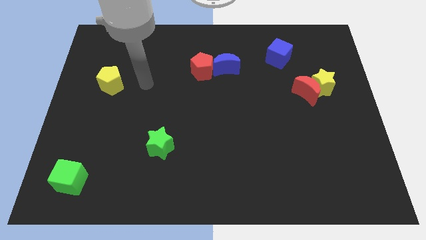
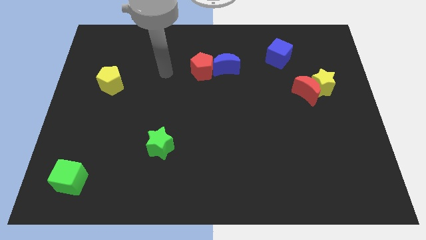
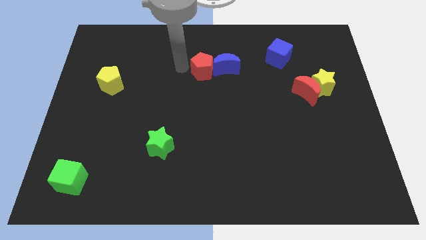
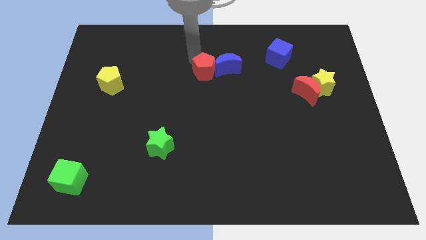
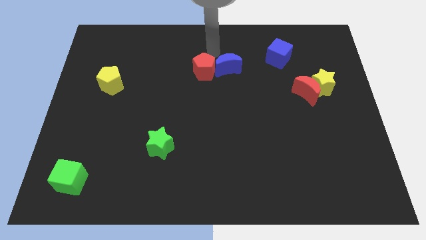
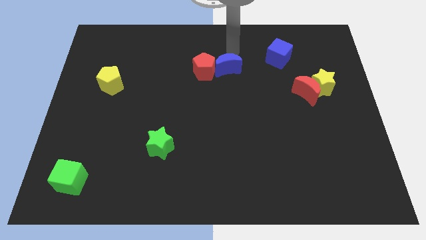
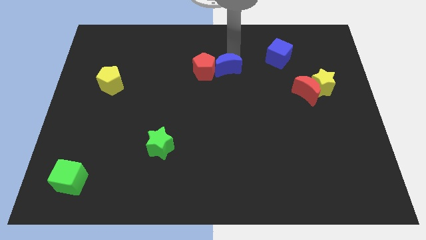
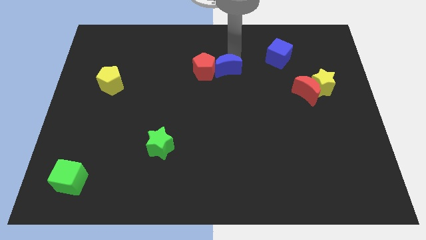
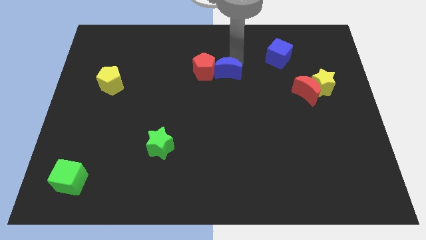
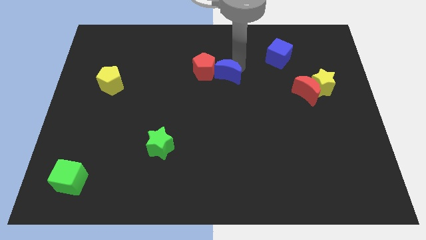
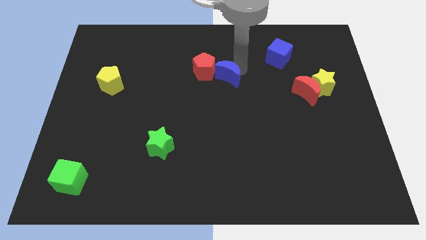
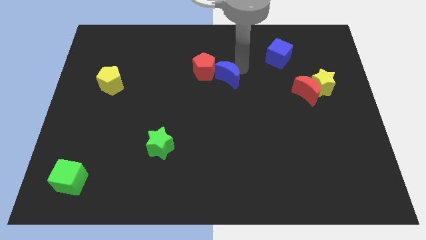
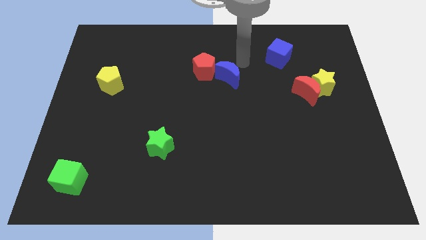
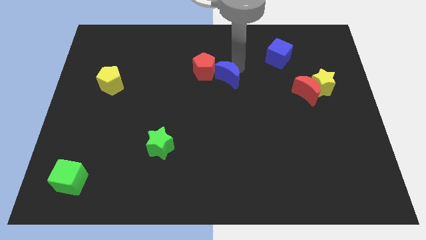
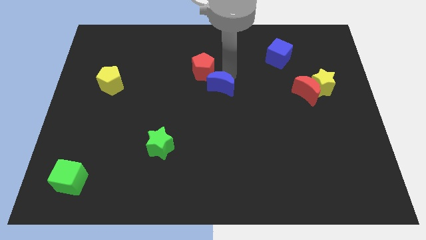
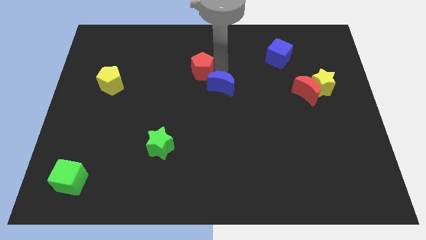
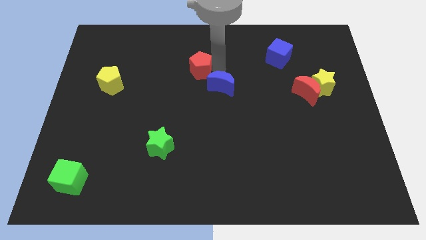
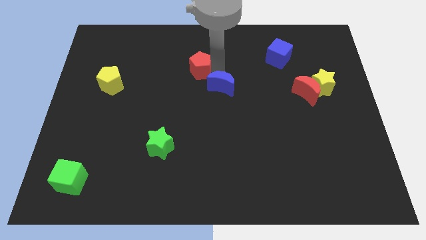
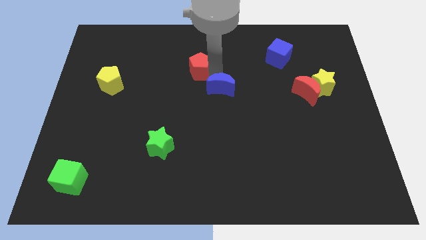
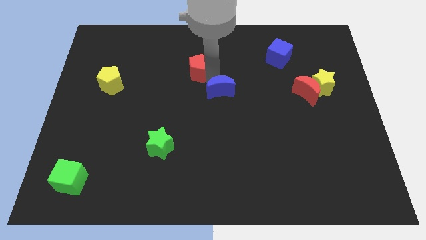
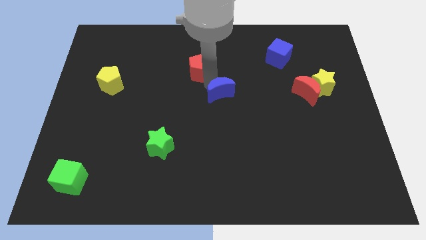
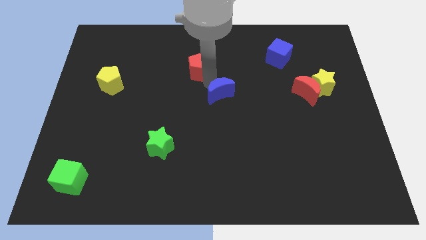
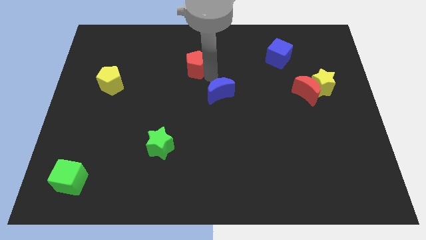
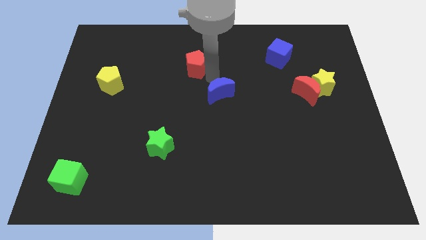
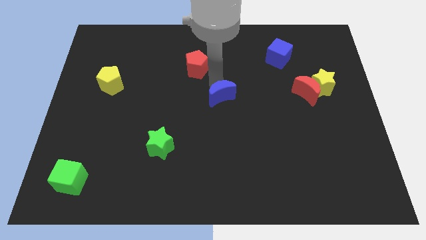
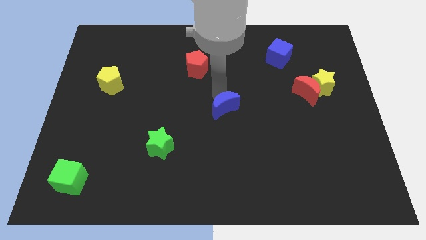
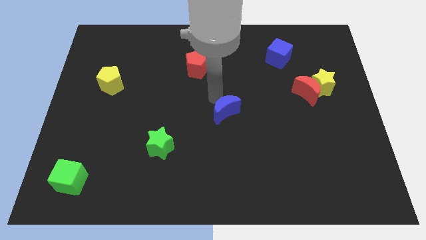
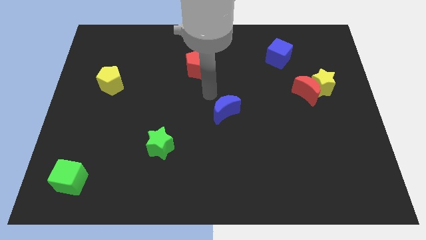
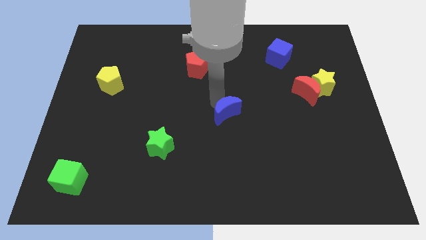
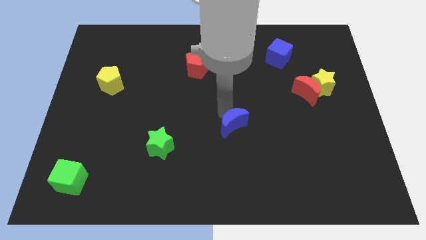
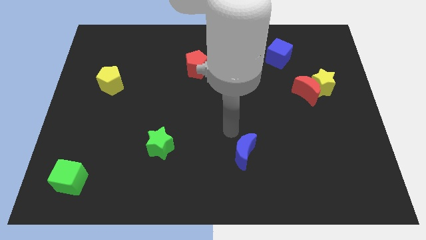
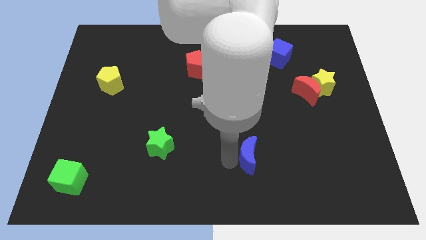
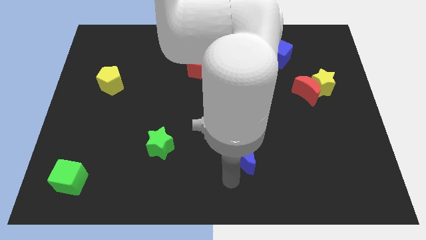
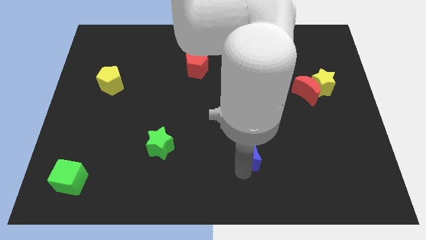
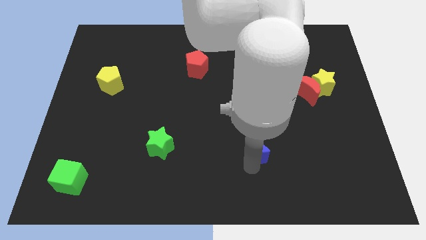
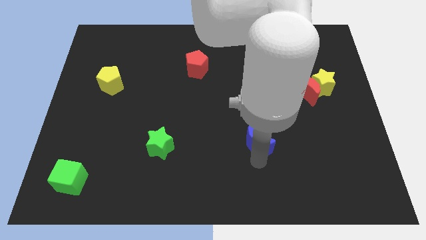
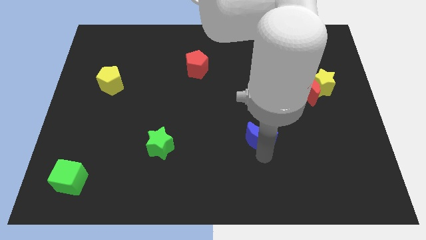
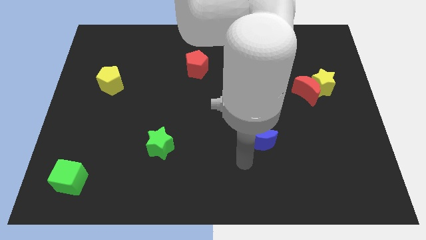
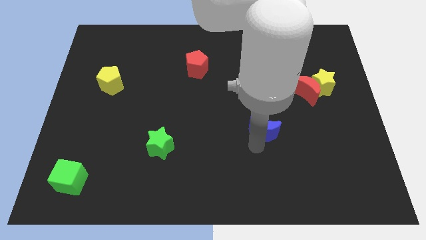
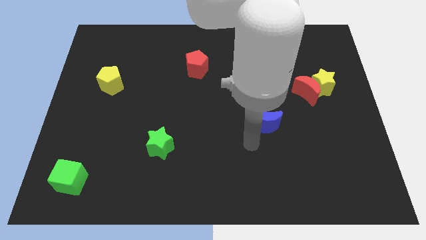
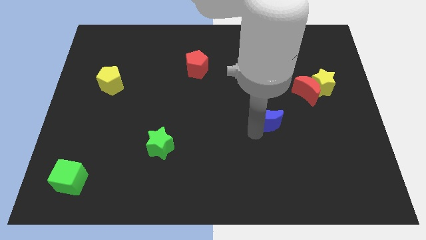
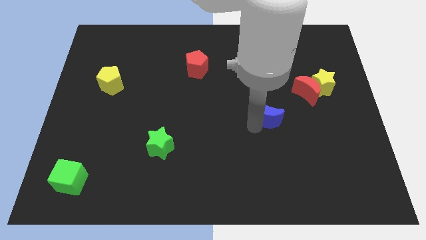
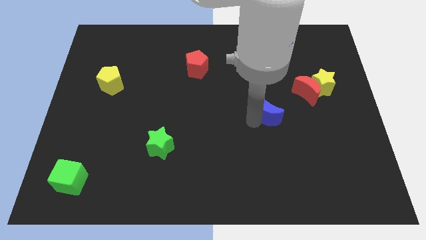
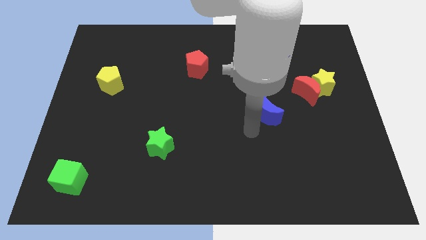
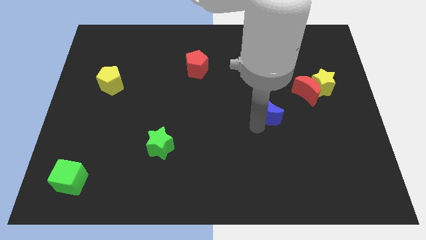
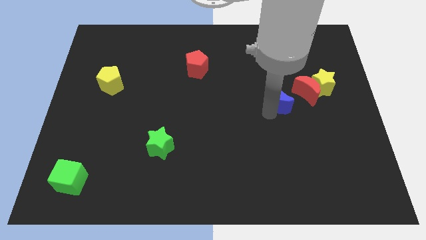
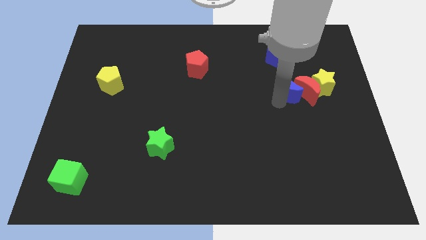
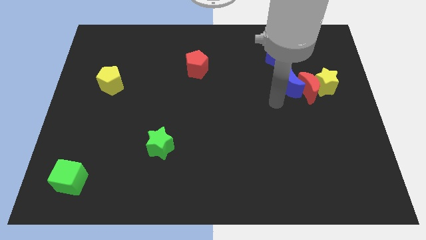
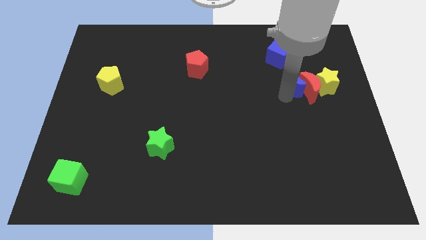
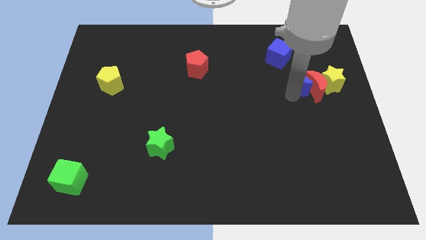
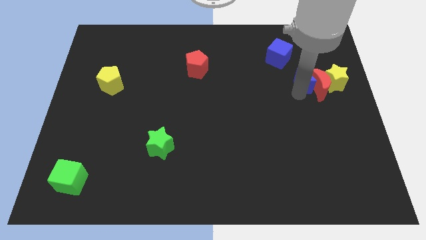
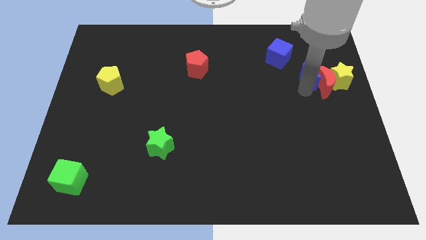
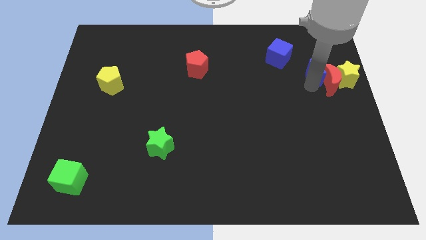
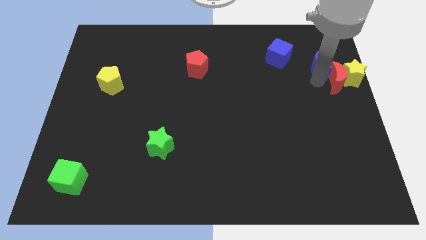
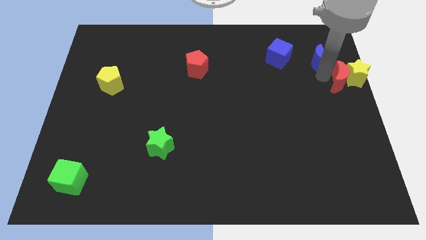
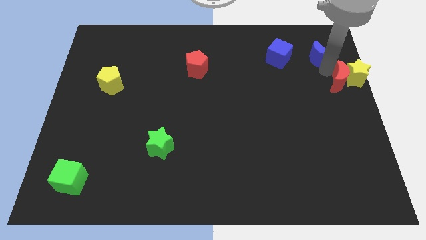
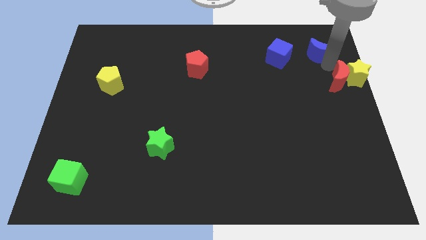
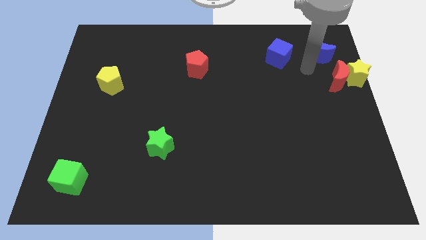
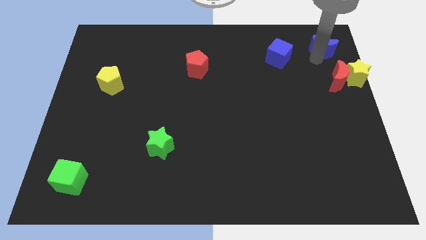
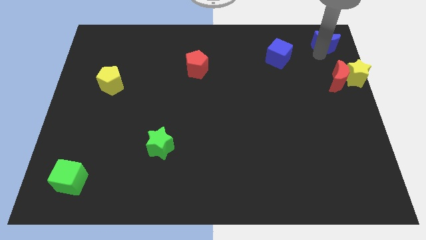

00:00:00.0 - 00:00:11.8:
put the blue moon to the top right of the board

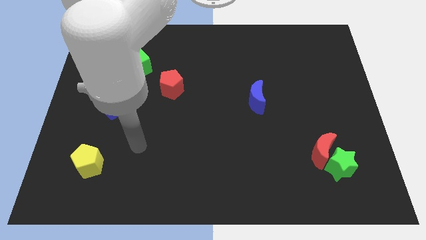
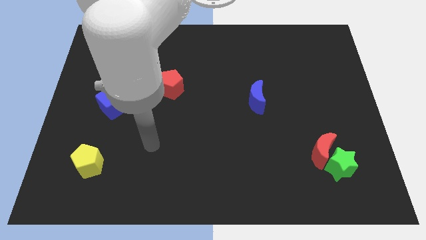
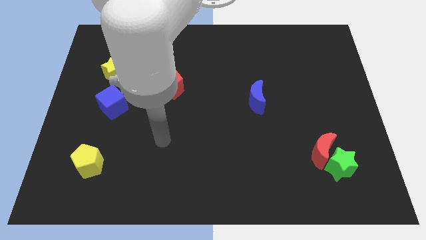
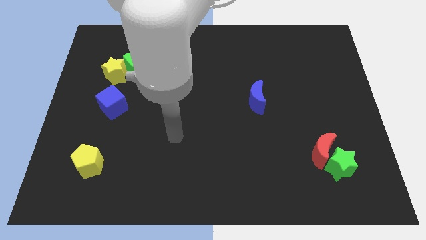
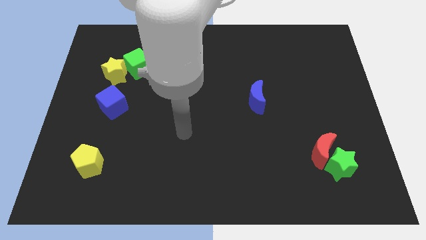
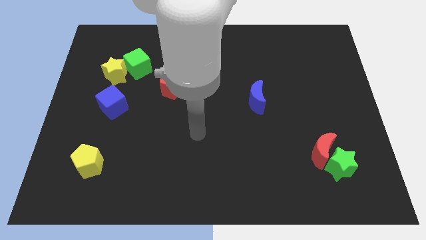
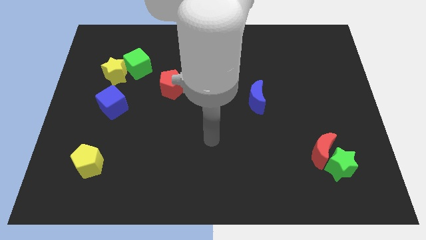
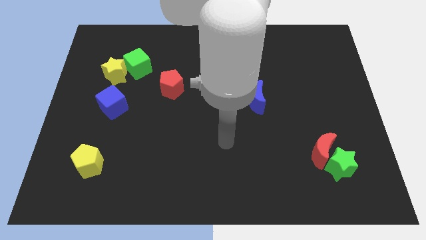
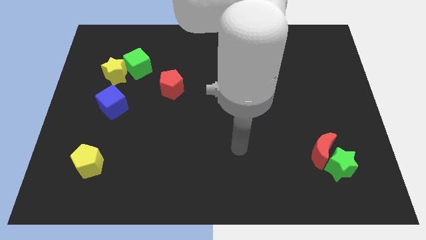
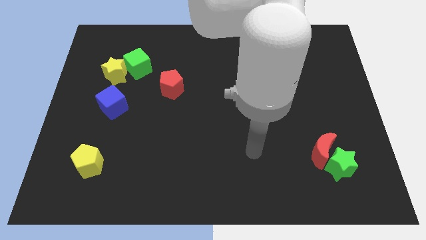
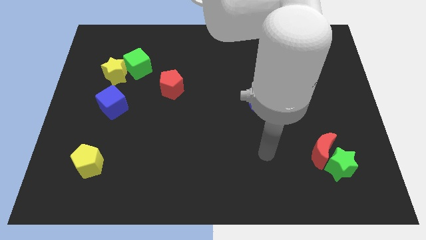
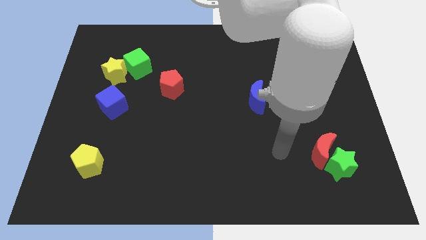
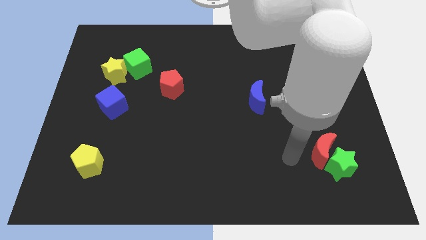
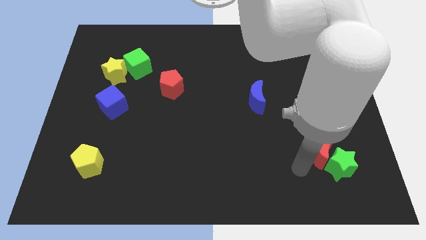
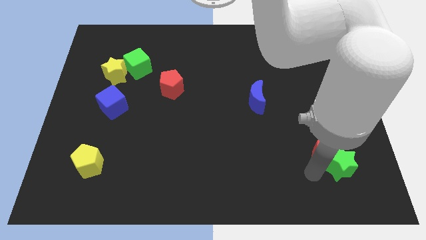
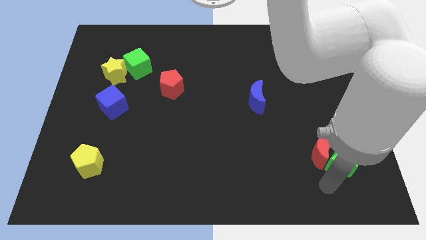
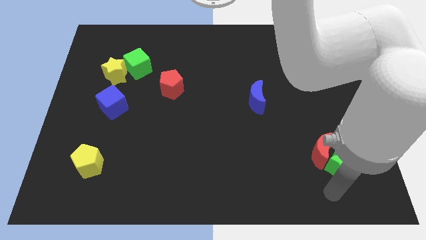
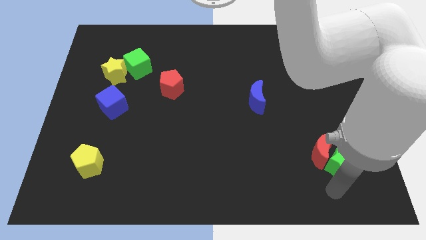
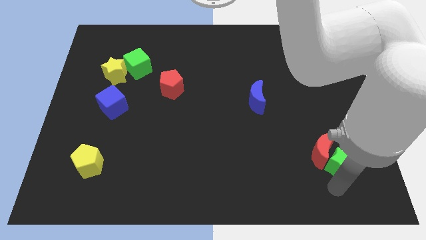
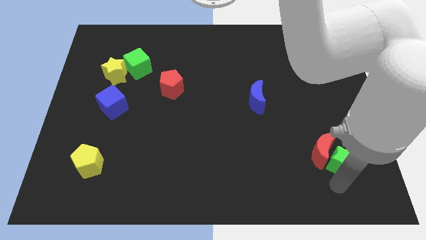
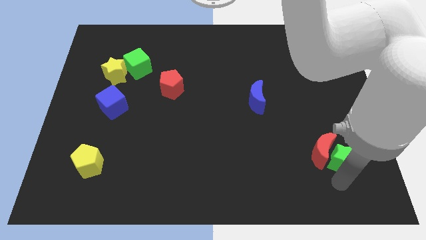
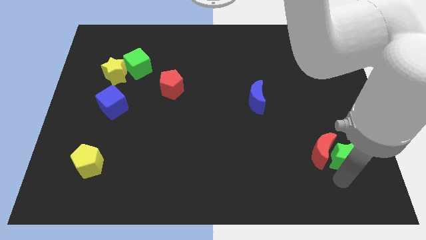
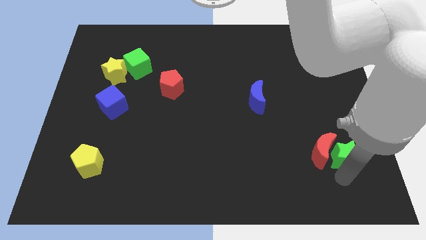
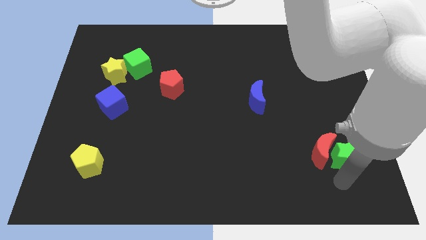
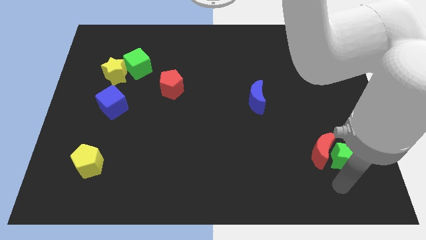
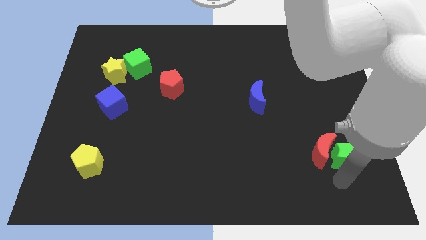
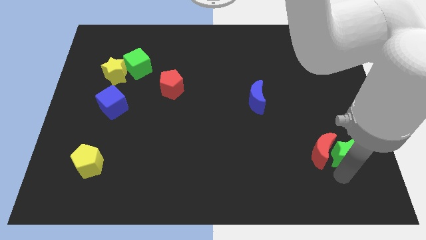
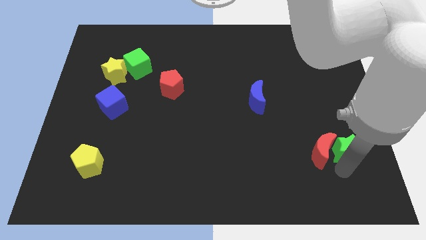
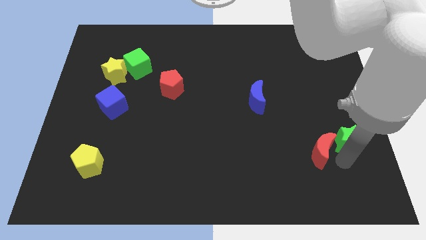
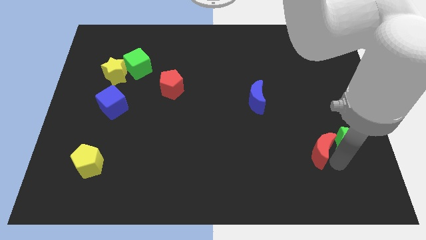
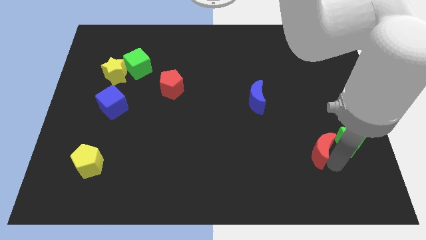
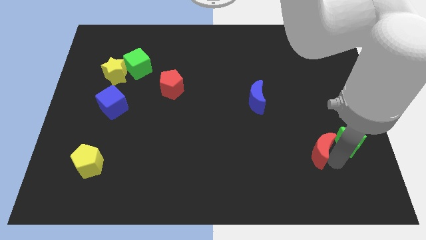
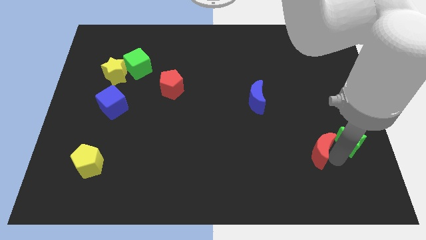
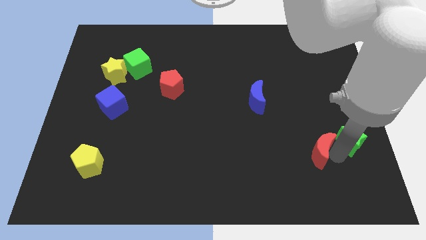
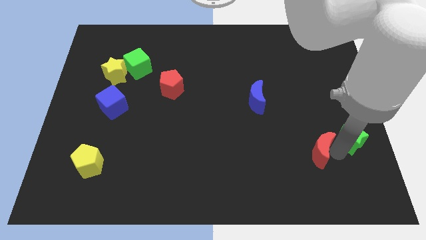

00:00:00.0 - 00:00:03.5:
slide the green star to the right side of the board
